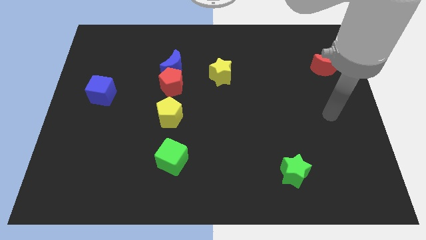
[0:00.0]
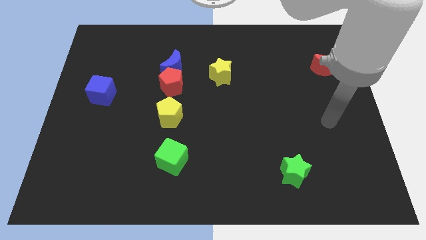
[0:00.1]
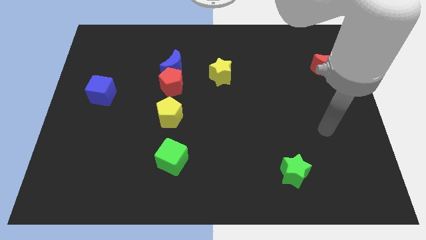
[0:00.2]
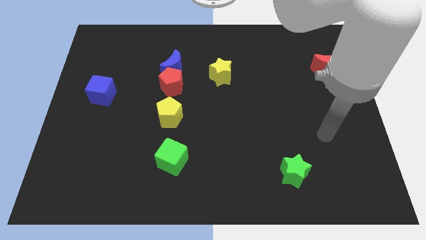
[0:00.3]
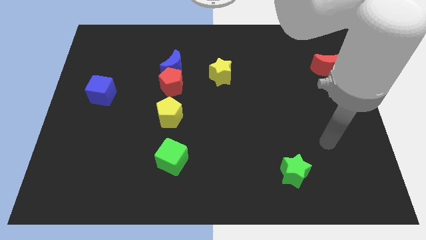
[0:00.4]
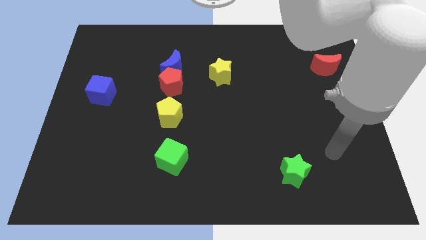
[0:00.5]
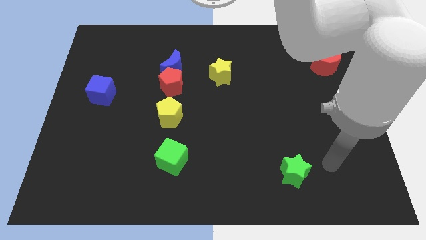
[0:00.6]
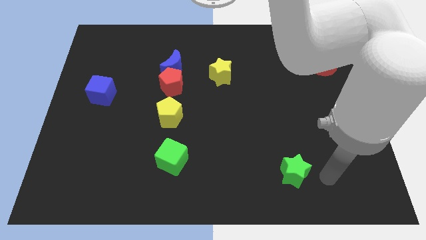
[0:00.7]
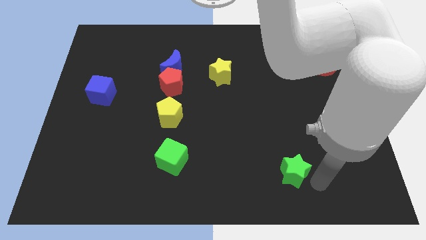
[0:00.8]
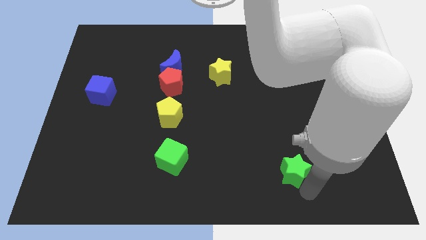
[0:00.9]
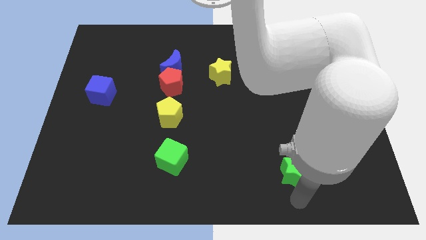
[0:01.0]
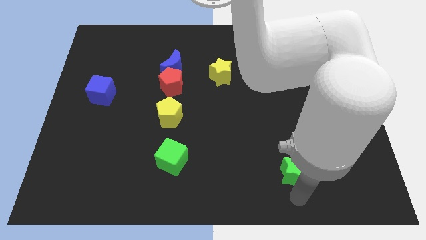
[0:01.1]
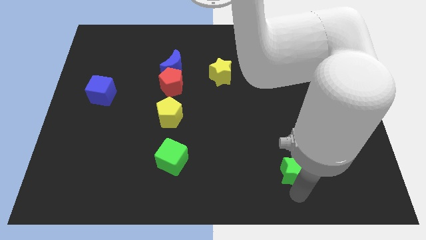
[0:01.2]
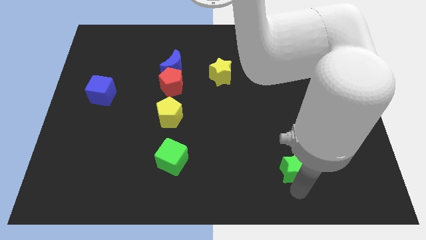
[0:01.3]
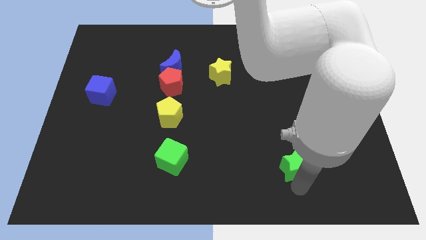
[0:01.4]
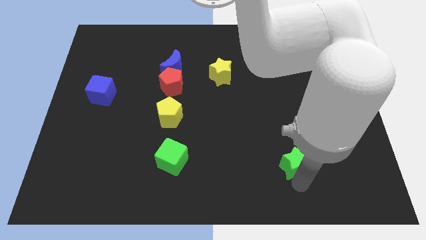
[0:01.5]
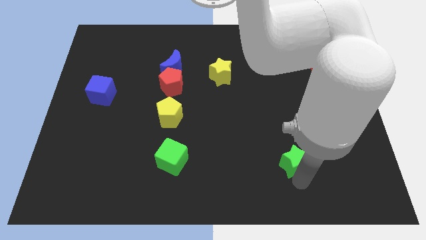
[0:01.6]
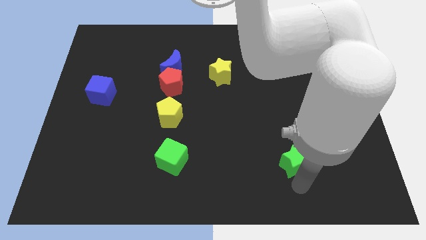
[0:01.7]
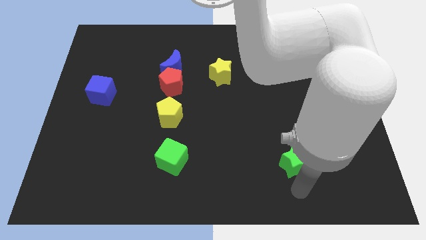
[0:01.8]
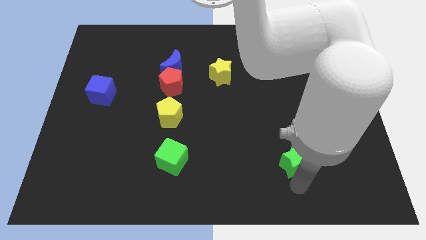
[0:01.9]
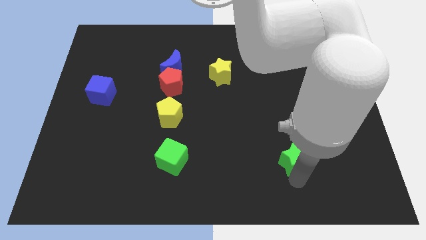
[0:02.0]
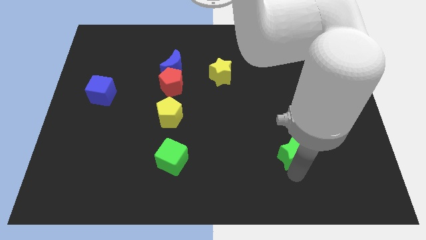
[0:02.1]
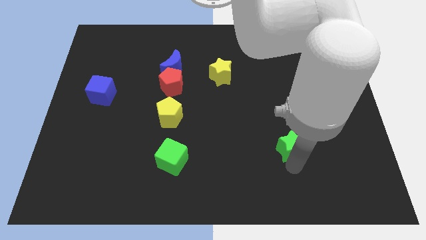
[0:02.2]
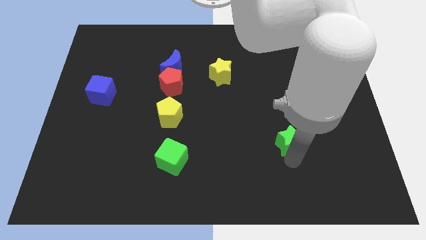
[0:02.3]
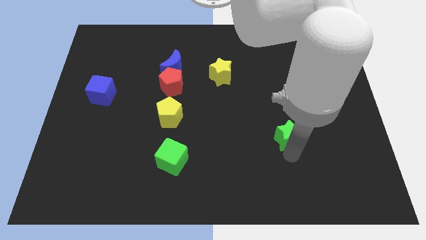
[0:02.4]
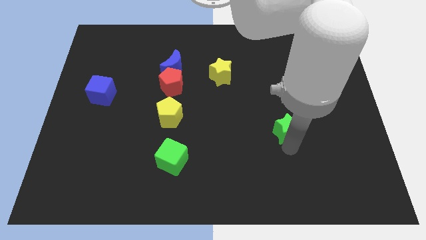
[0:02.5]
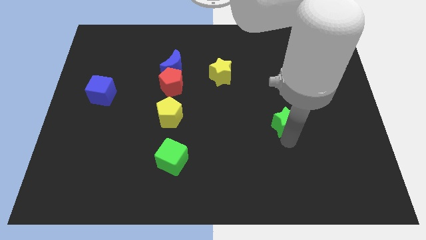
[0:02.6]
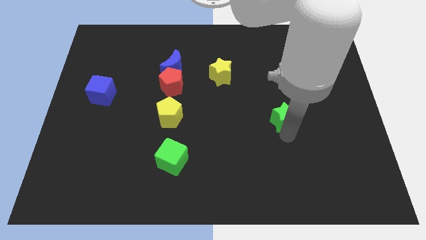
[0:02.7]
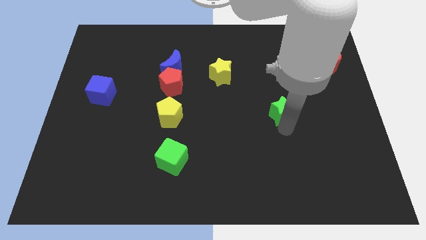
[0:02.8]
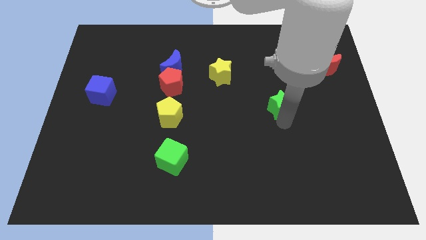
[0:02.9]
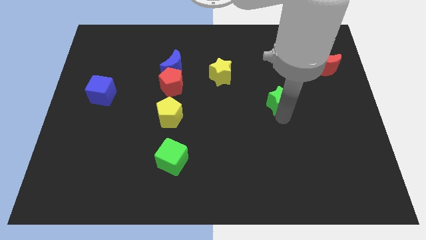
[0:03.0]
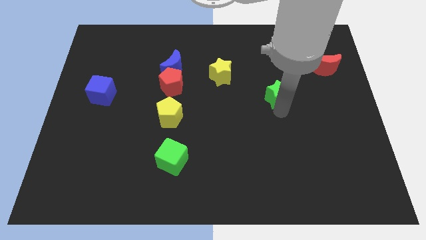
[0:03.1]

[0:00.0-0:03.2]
push the green star up

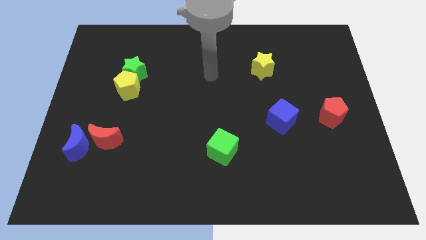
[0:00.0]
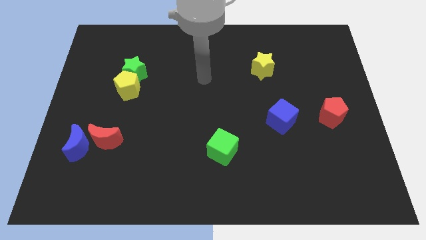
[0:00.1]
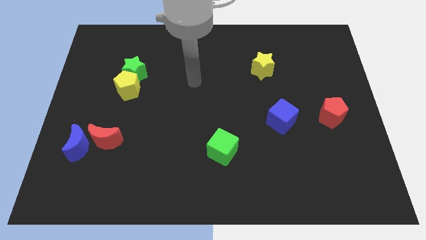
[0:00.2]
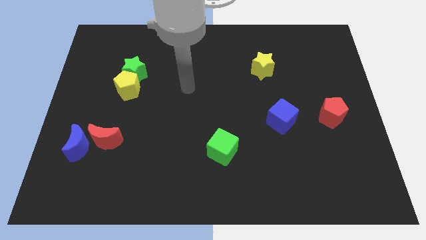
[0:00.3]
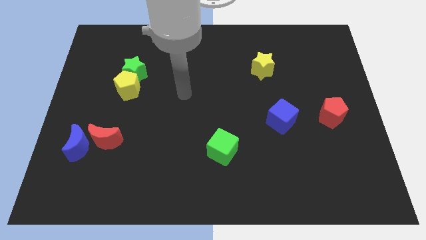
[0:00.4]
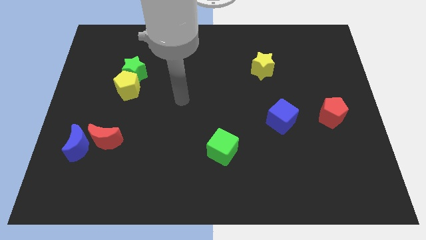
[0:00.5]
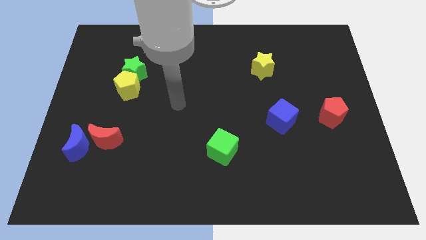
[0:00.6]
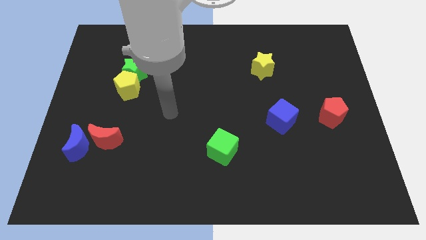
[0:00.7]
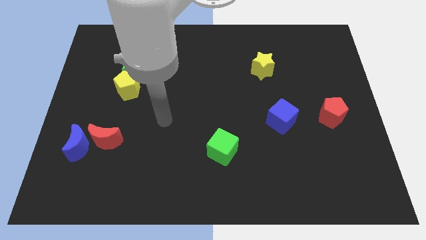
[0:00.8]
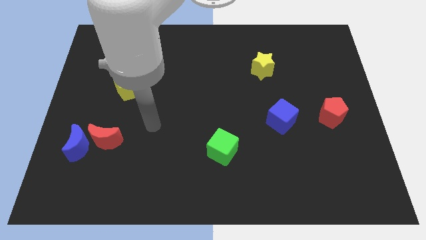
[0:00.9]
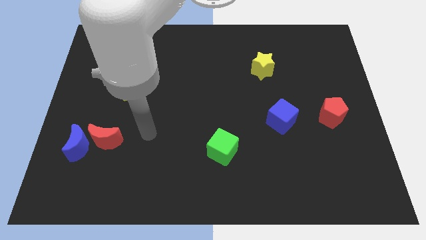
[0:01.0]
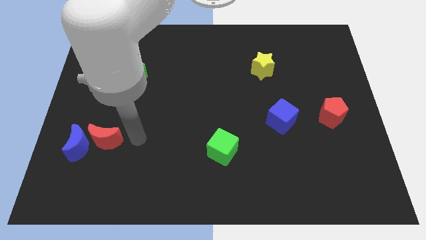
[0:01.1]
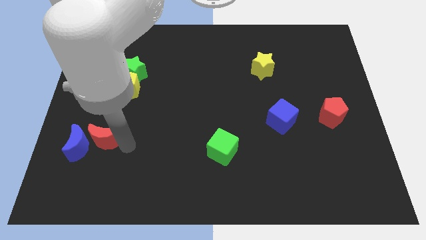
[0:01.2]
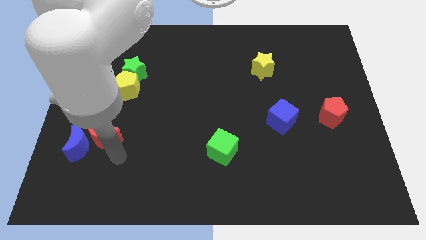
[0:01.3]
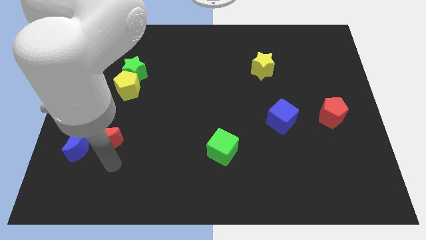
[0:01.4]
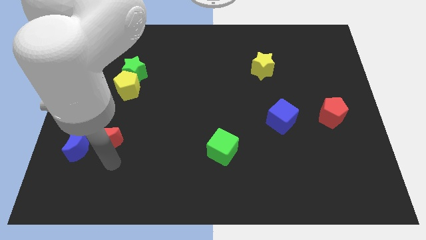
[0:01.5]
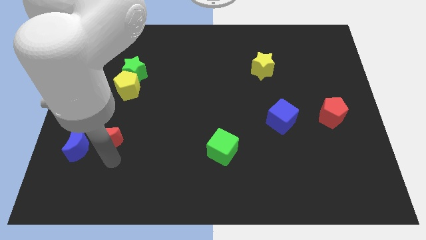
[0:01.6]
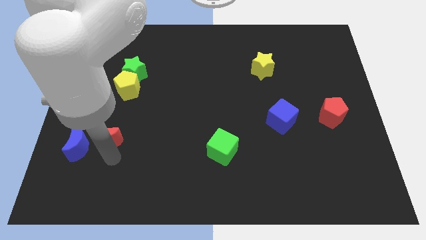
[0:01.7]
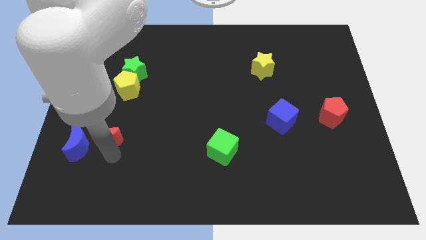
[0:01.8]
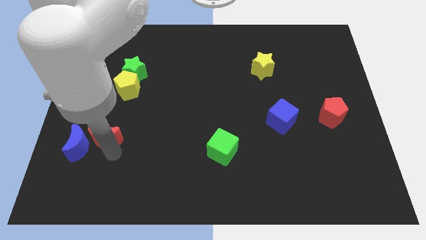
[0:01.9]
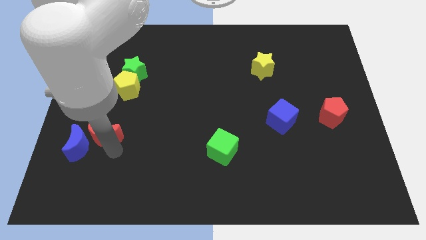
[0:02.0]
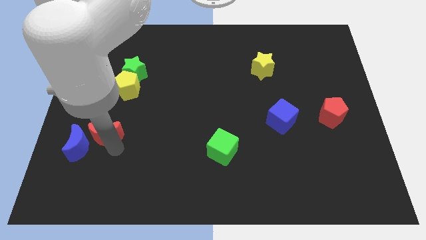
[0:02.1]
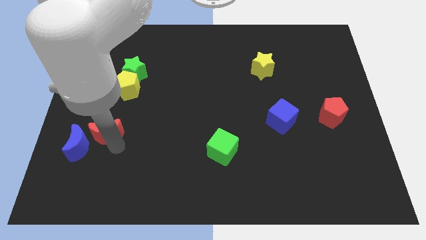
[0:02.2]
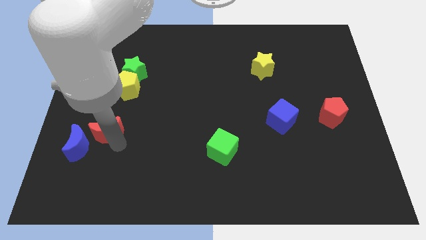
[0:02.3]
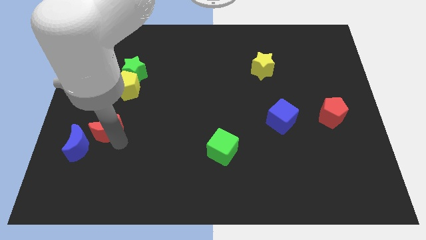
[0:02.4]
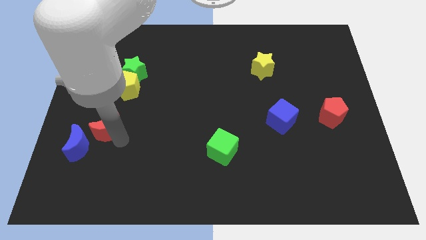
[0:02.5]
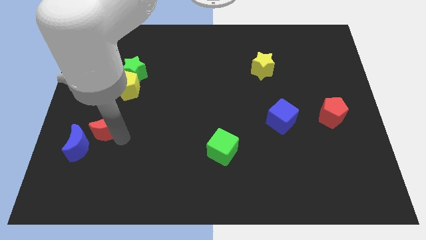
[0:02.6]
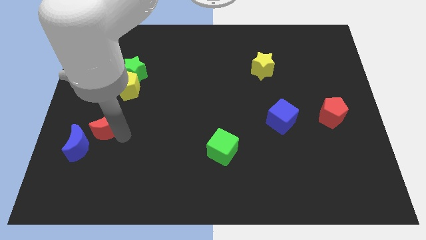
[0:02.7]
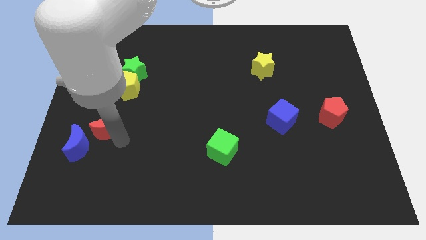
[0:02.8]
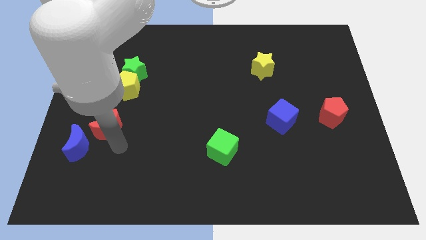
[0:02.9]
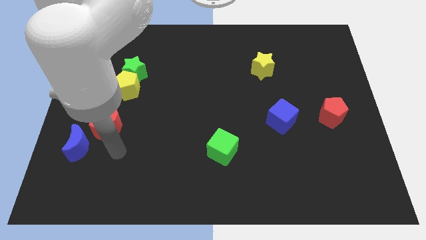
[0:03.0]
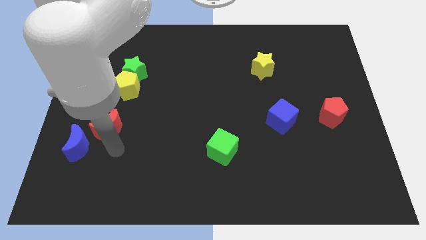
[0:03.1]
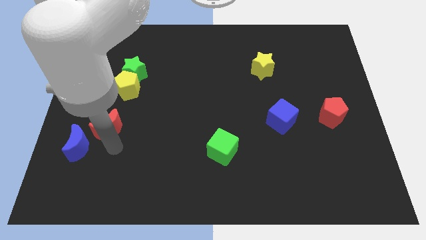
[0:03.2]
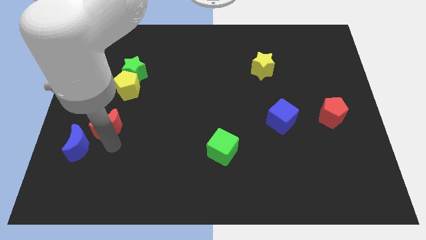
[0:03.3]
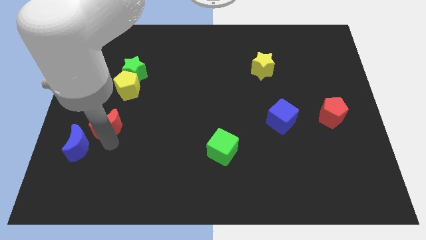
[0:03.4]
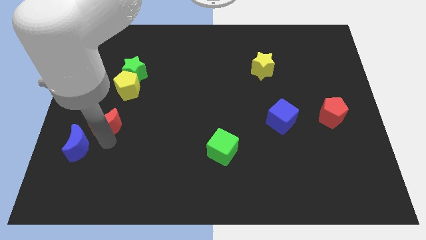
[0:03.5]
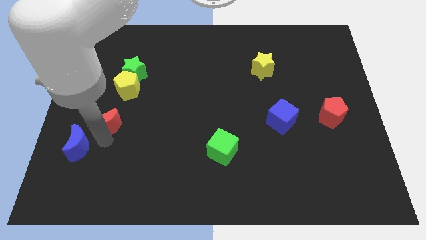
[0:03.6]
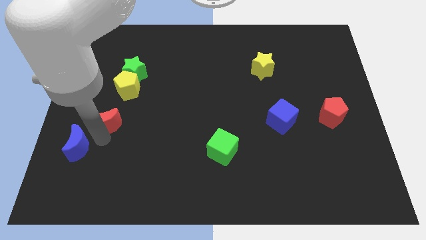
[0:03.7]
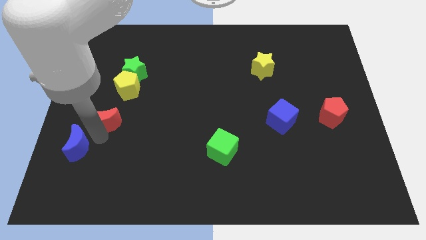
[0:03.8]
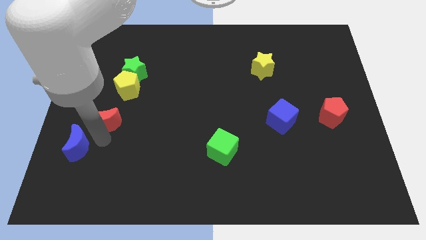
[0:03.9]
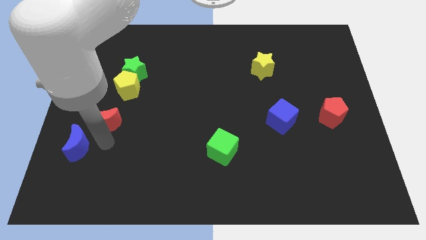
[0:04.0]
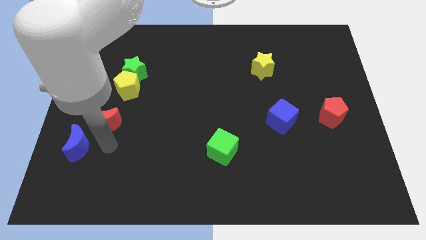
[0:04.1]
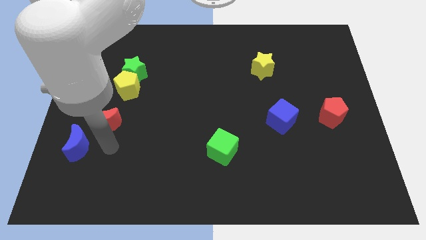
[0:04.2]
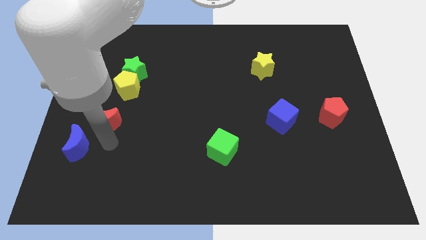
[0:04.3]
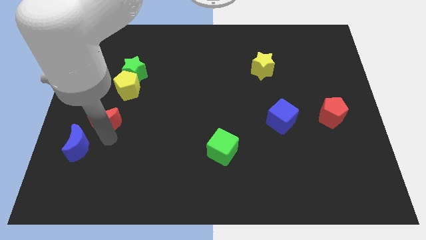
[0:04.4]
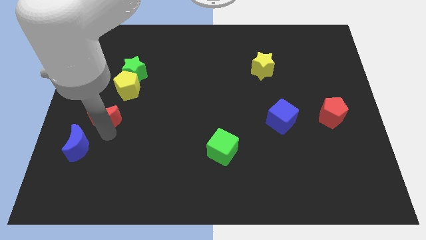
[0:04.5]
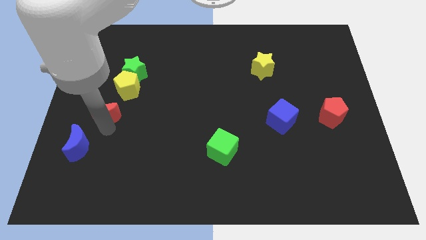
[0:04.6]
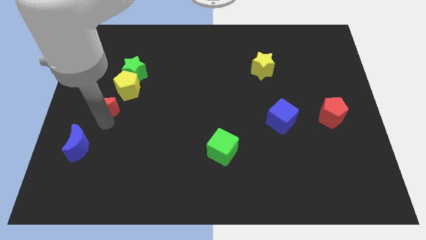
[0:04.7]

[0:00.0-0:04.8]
push the red moon up a little bit
